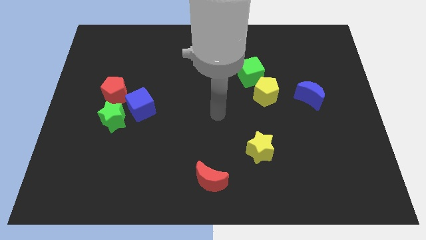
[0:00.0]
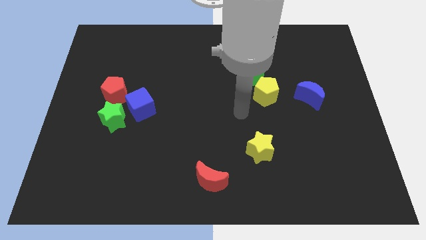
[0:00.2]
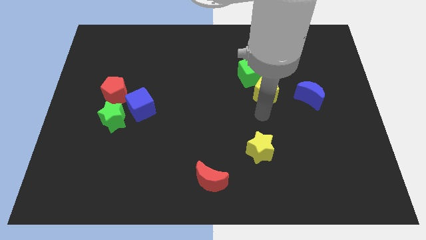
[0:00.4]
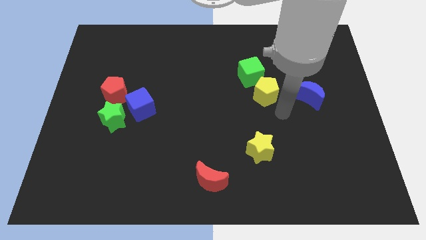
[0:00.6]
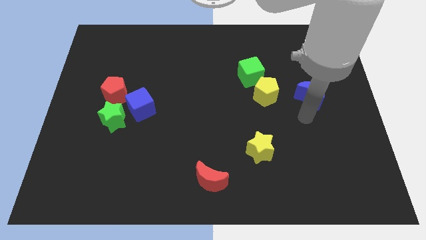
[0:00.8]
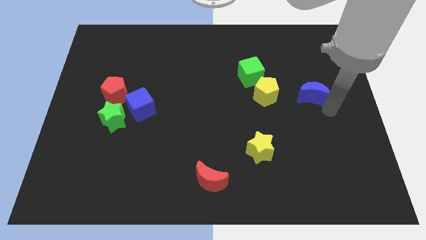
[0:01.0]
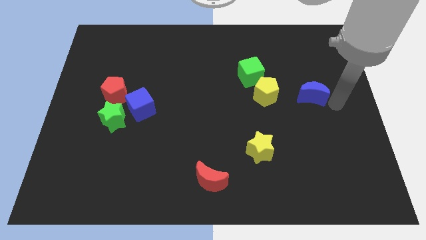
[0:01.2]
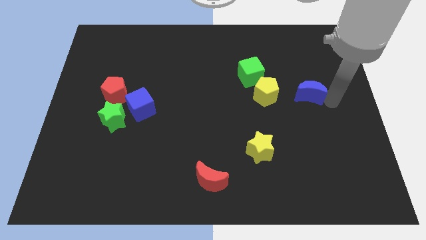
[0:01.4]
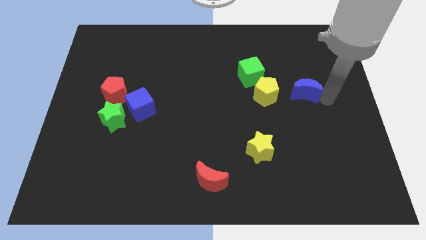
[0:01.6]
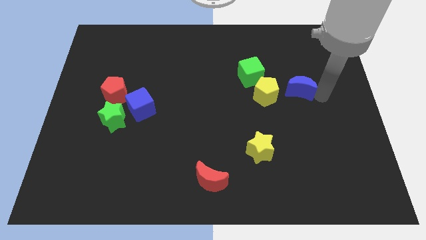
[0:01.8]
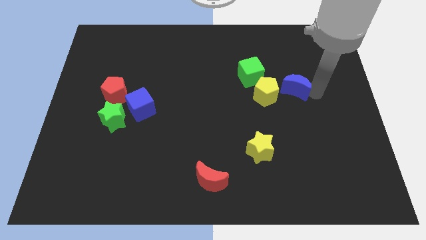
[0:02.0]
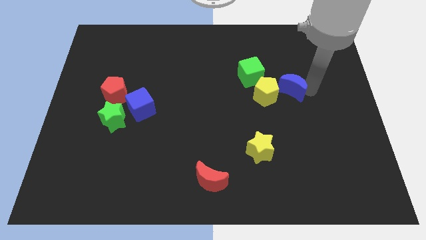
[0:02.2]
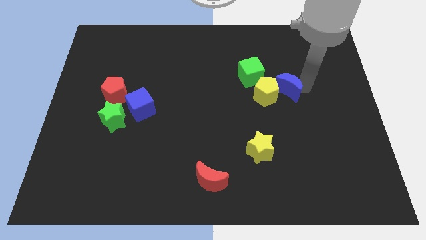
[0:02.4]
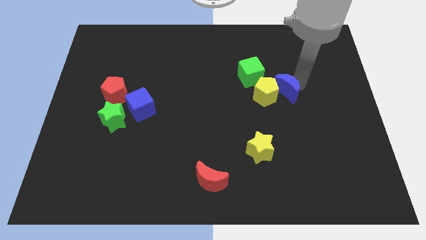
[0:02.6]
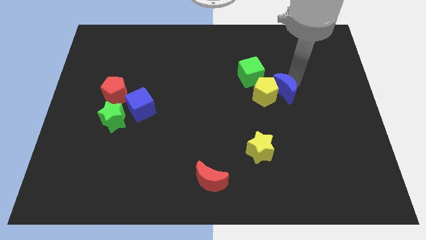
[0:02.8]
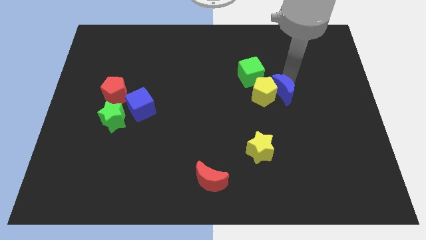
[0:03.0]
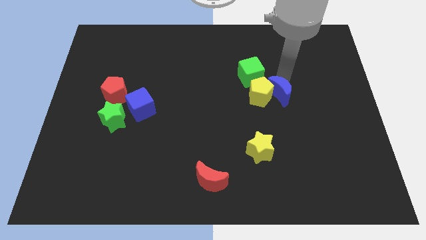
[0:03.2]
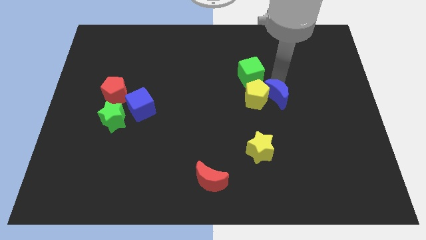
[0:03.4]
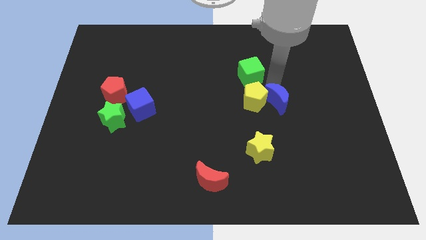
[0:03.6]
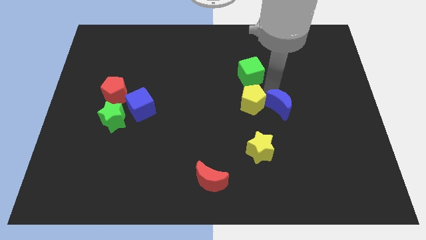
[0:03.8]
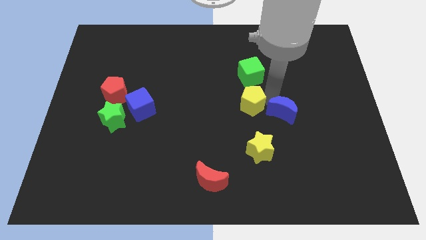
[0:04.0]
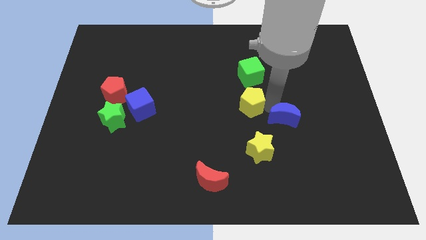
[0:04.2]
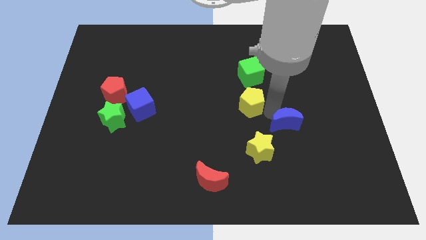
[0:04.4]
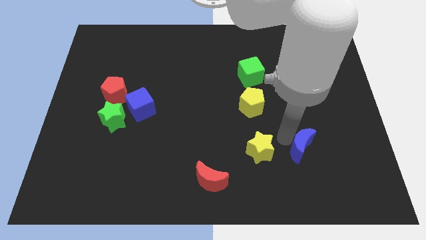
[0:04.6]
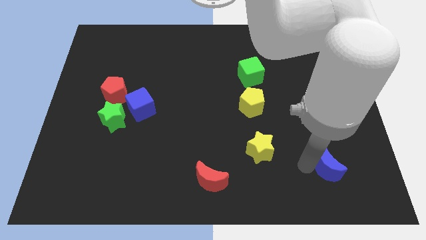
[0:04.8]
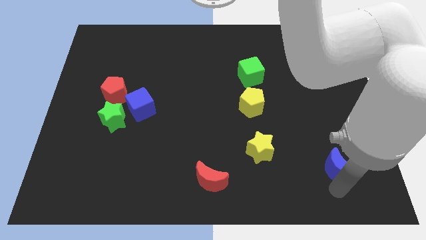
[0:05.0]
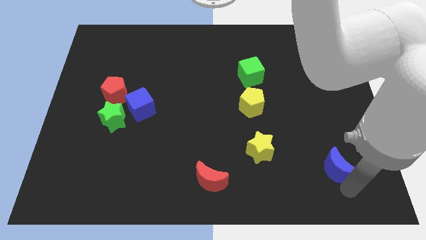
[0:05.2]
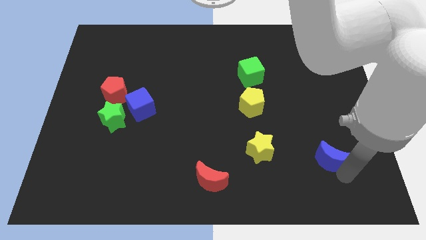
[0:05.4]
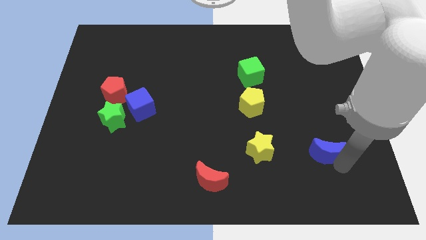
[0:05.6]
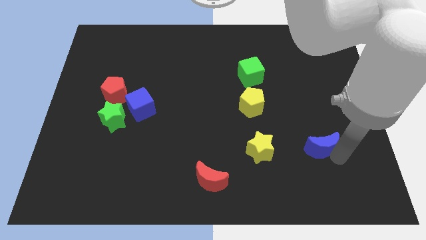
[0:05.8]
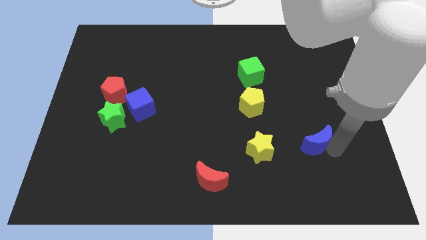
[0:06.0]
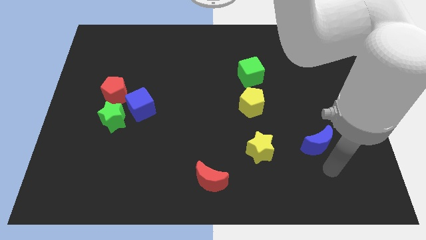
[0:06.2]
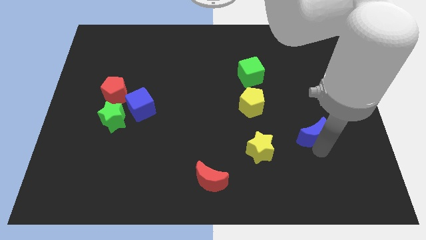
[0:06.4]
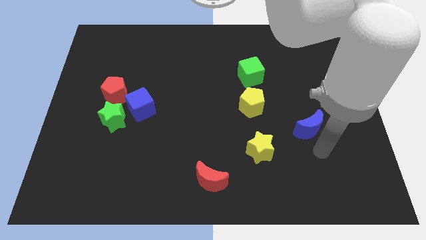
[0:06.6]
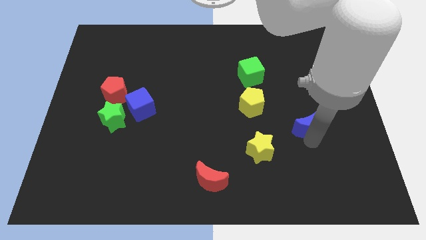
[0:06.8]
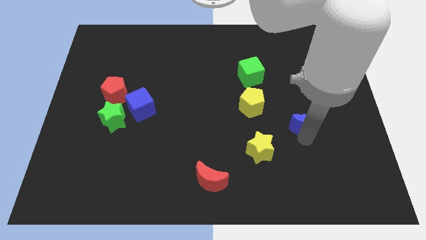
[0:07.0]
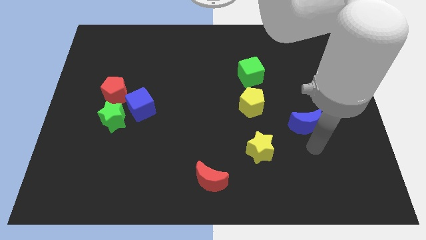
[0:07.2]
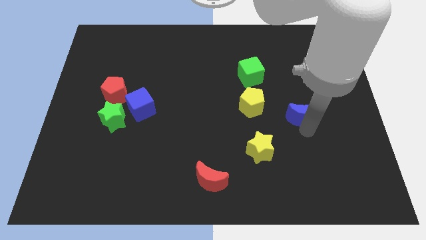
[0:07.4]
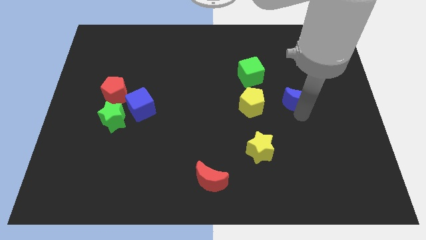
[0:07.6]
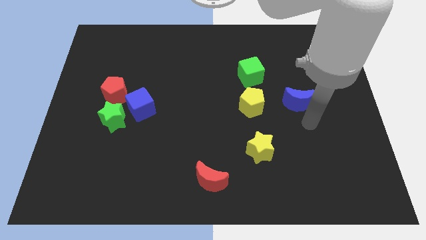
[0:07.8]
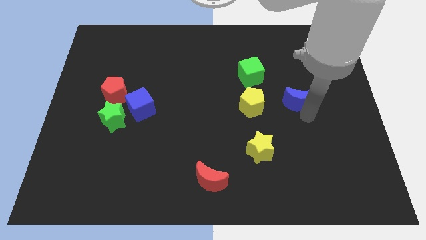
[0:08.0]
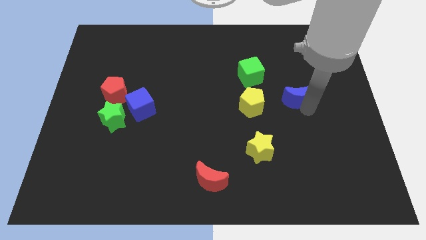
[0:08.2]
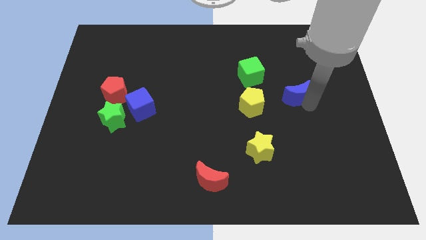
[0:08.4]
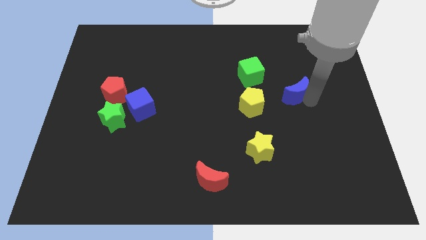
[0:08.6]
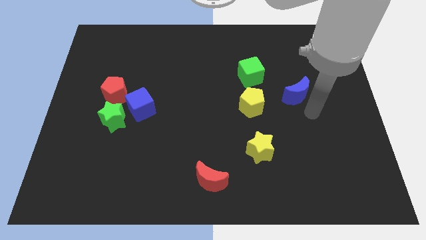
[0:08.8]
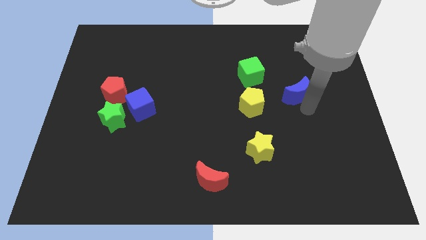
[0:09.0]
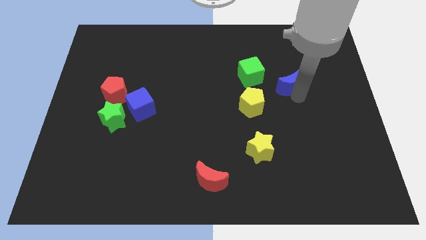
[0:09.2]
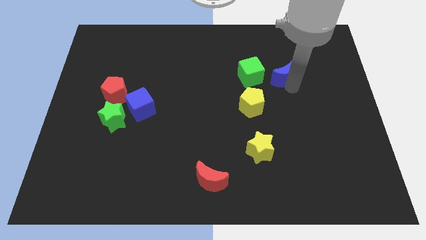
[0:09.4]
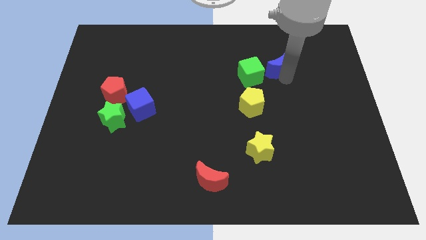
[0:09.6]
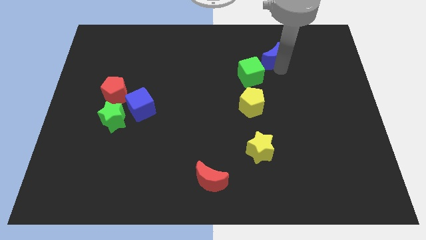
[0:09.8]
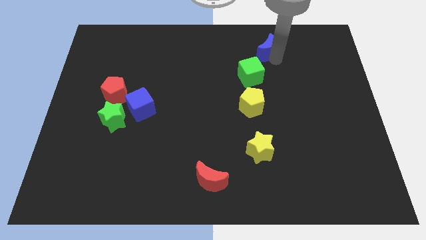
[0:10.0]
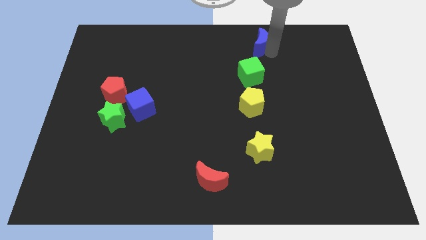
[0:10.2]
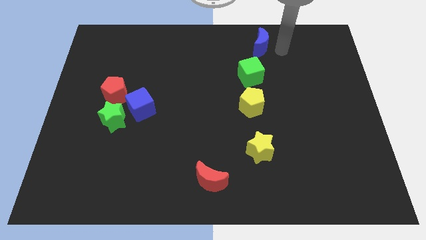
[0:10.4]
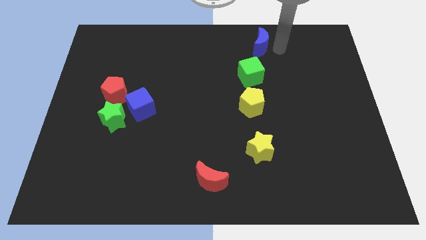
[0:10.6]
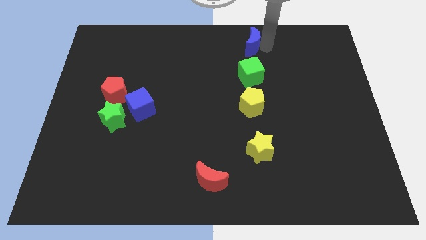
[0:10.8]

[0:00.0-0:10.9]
push the blue moon to the top side
